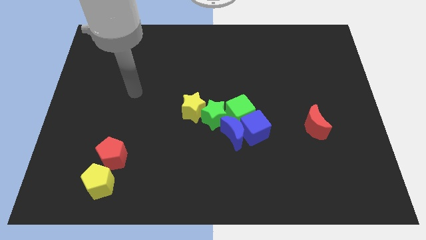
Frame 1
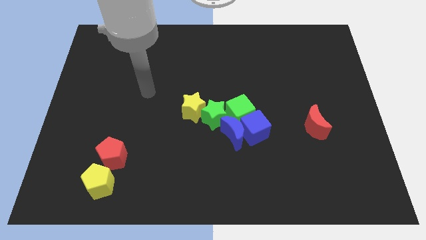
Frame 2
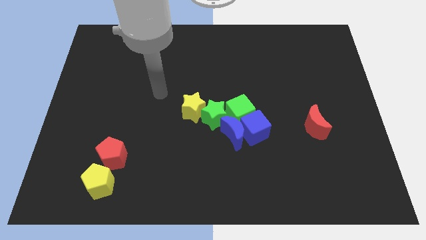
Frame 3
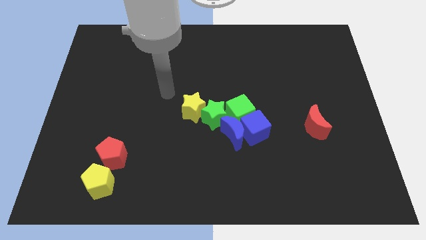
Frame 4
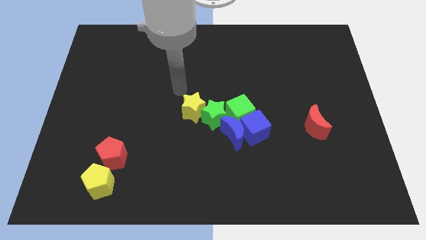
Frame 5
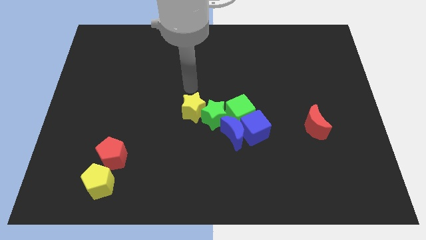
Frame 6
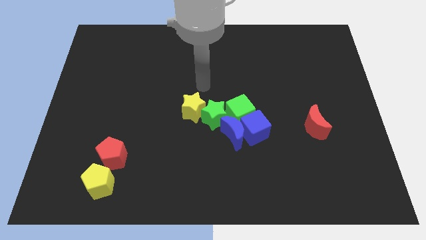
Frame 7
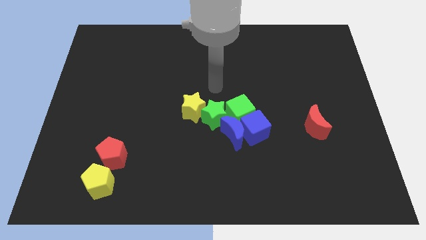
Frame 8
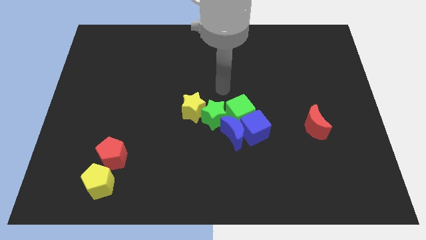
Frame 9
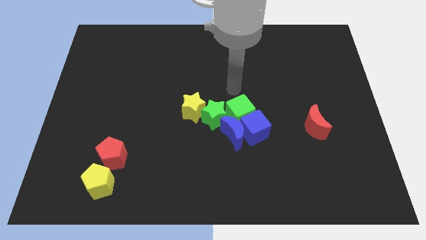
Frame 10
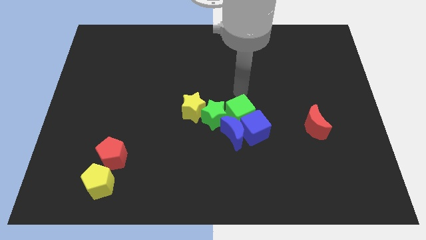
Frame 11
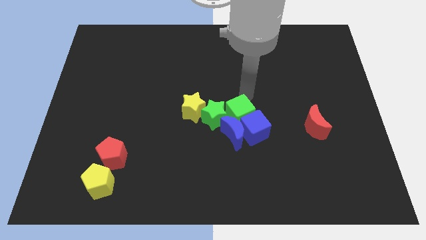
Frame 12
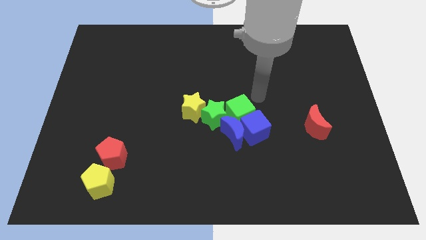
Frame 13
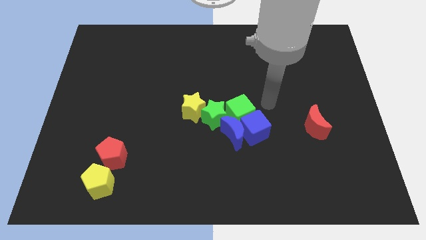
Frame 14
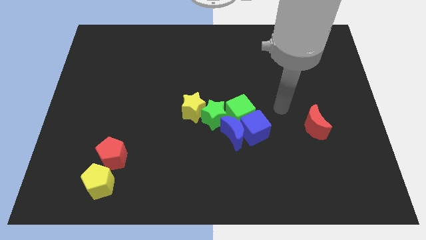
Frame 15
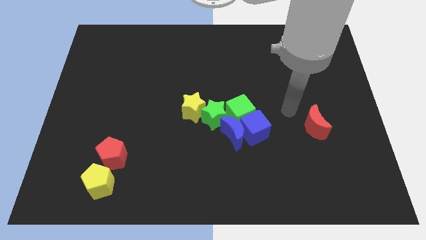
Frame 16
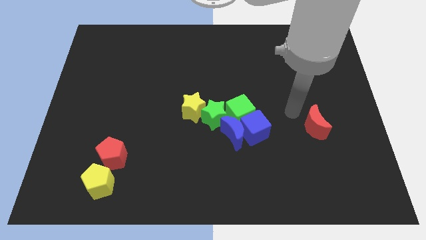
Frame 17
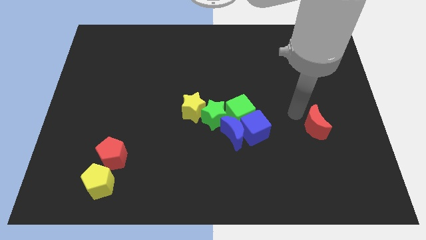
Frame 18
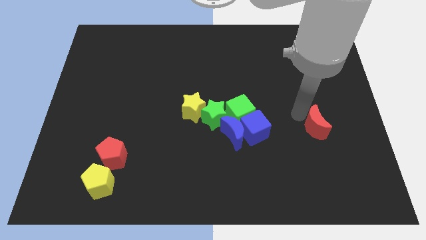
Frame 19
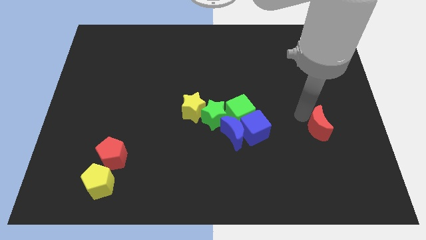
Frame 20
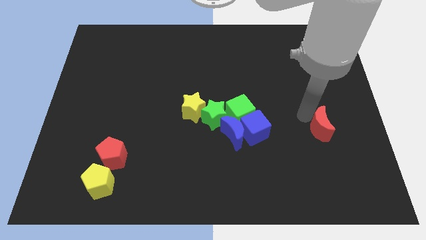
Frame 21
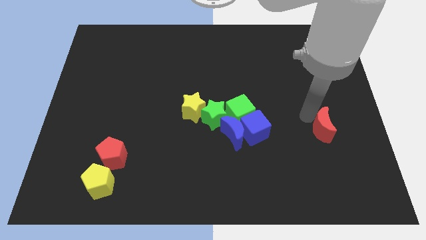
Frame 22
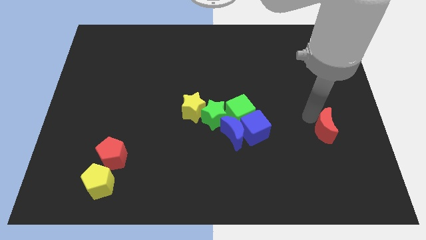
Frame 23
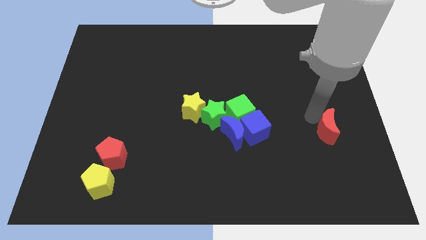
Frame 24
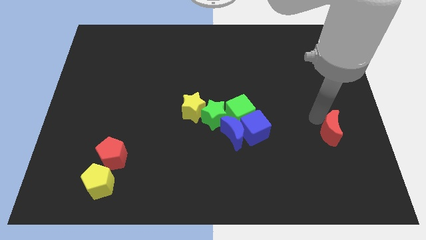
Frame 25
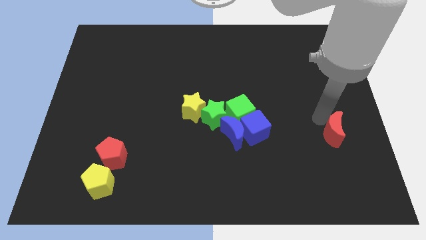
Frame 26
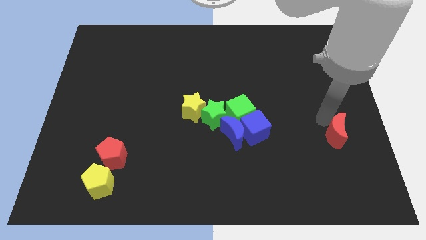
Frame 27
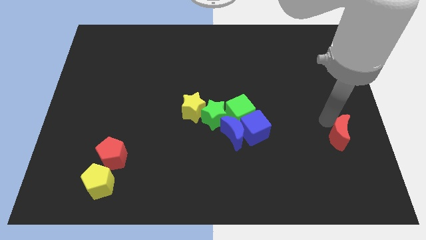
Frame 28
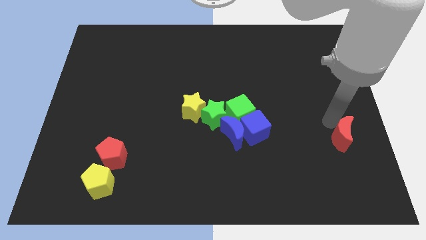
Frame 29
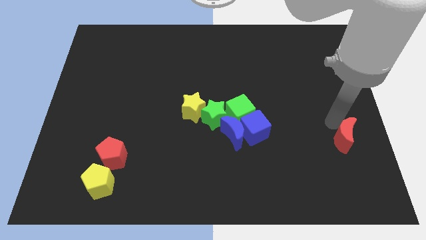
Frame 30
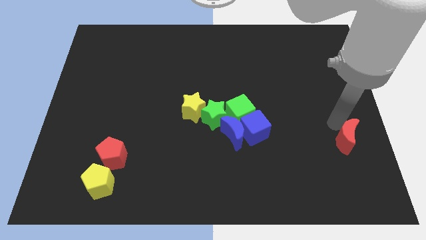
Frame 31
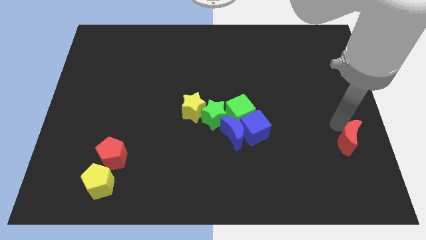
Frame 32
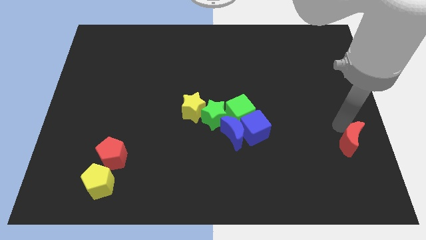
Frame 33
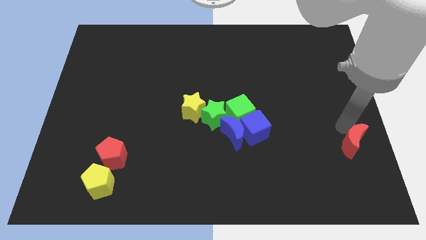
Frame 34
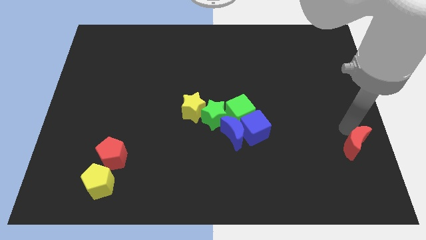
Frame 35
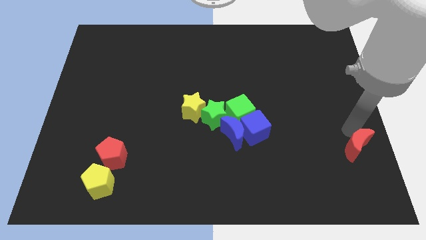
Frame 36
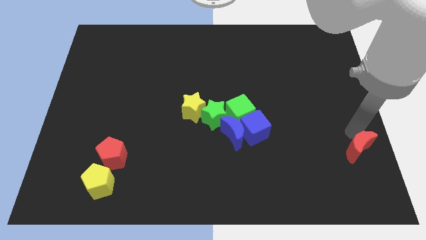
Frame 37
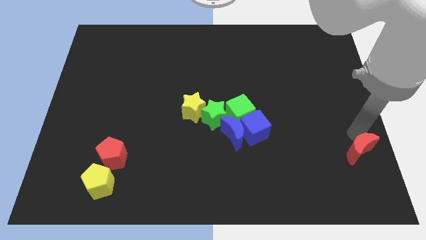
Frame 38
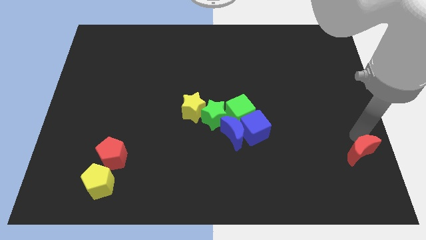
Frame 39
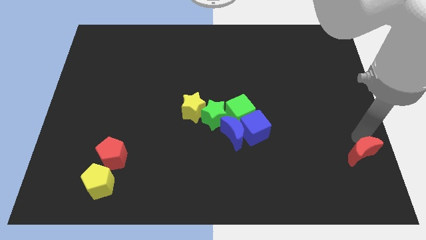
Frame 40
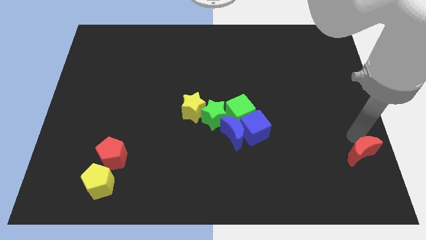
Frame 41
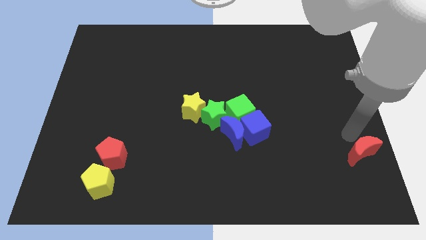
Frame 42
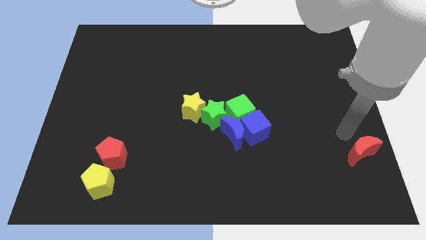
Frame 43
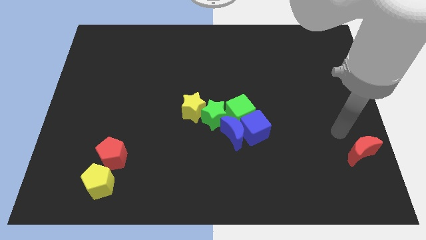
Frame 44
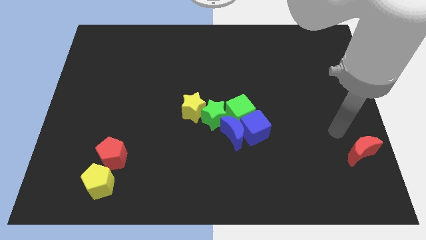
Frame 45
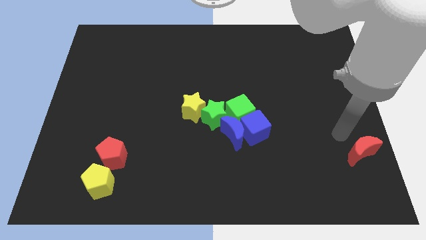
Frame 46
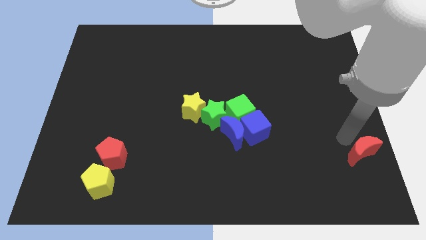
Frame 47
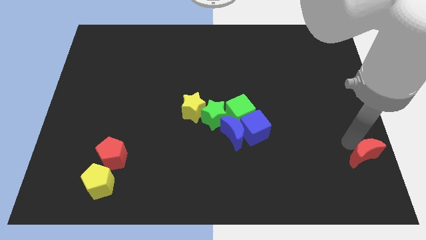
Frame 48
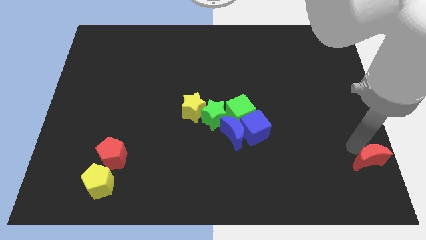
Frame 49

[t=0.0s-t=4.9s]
slide the red moon to the bottom right

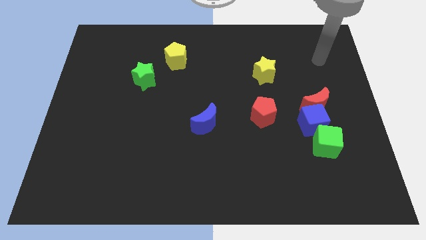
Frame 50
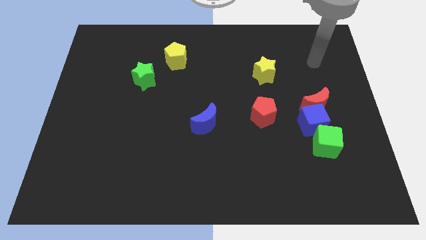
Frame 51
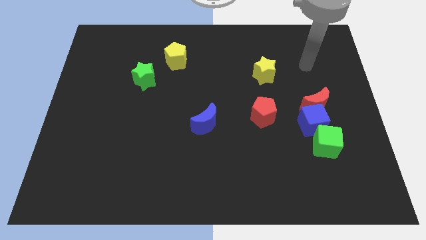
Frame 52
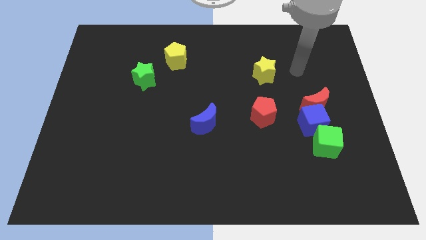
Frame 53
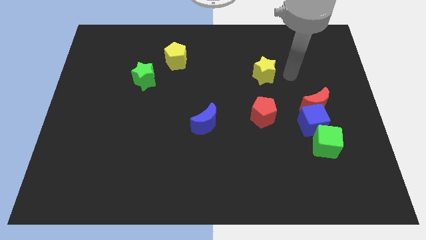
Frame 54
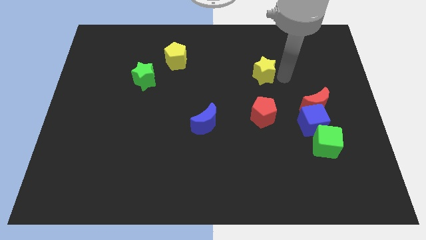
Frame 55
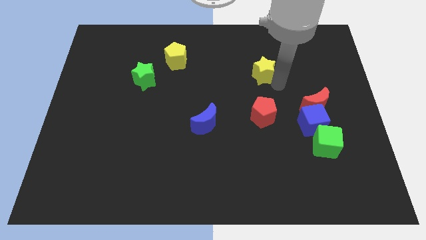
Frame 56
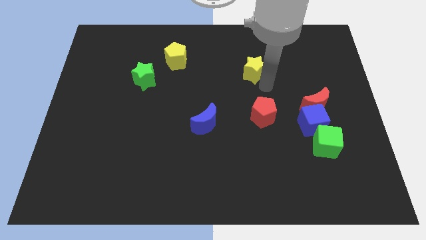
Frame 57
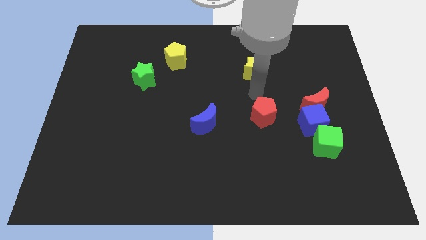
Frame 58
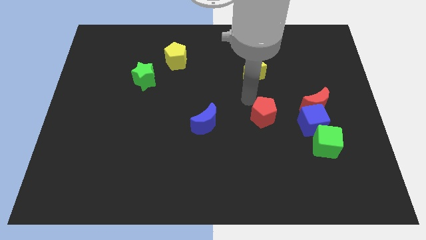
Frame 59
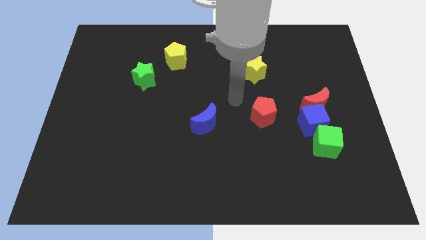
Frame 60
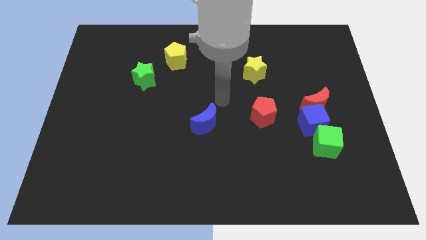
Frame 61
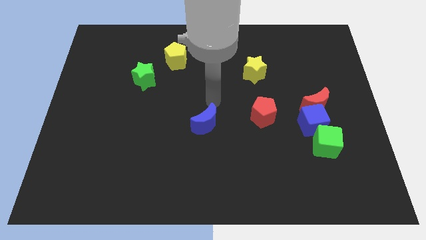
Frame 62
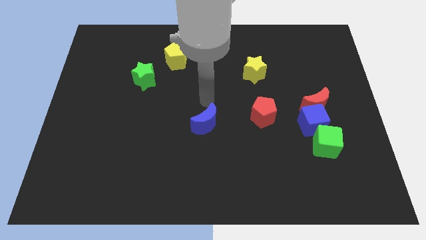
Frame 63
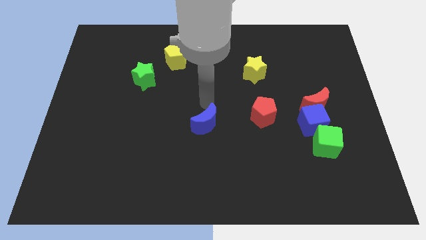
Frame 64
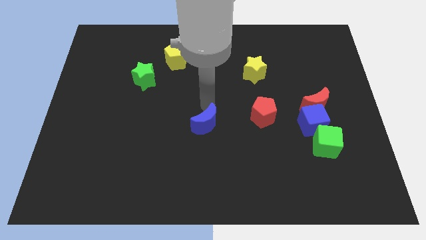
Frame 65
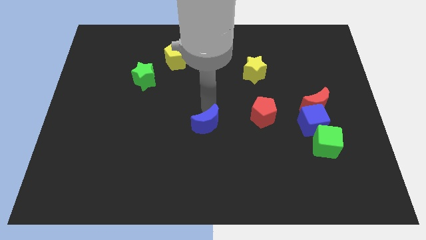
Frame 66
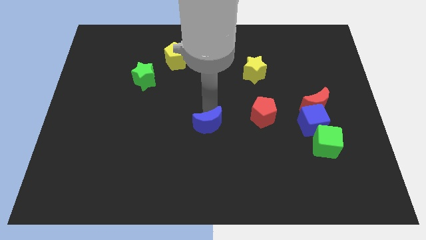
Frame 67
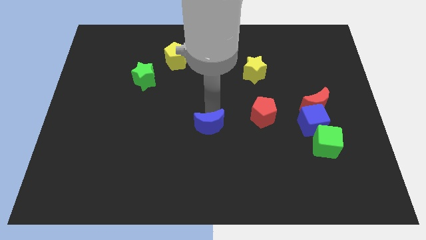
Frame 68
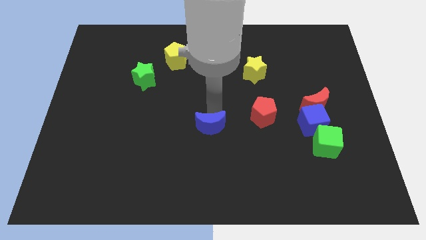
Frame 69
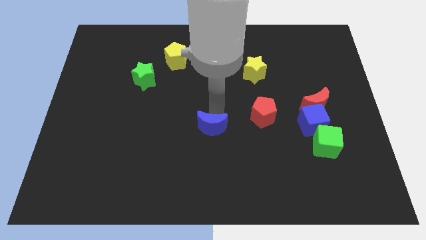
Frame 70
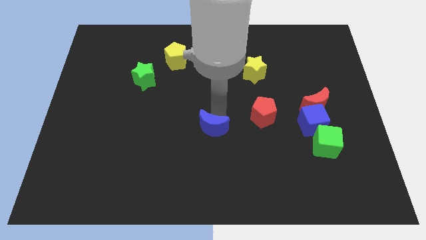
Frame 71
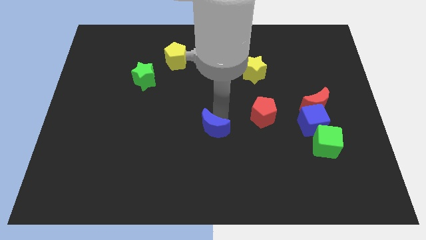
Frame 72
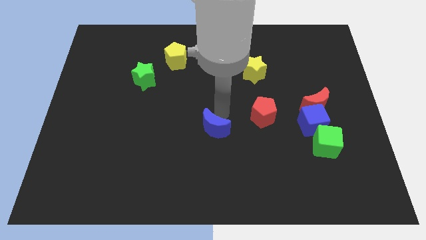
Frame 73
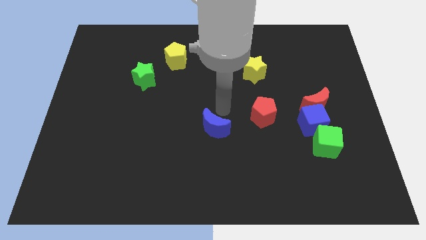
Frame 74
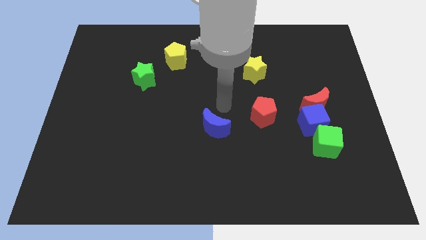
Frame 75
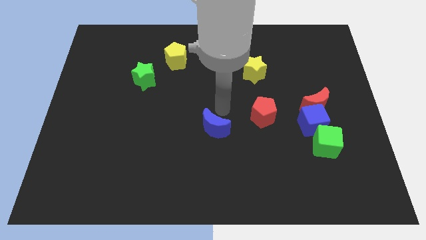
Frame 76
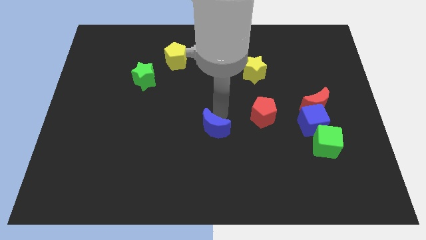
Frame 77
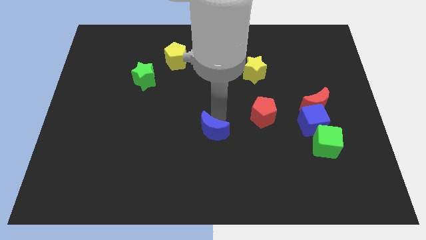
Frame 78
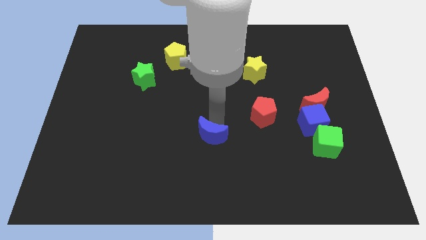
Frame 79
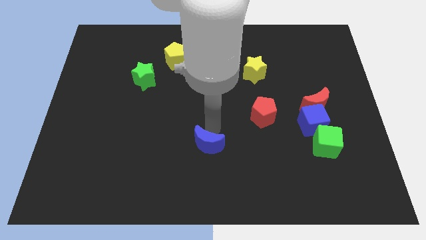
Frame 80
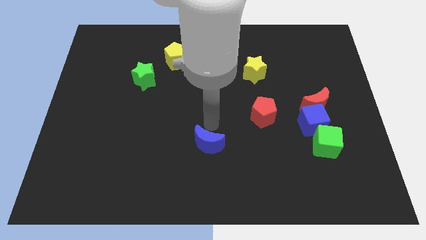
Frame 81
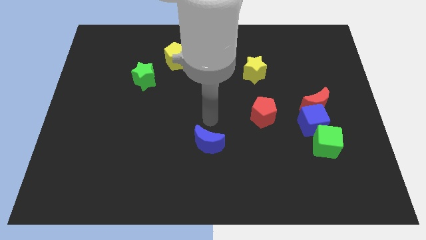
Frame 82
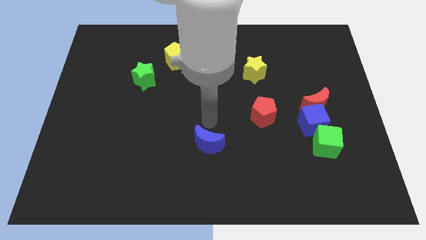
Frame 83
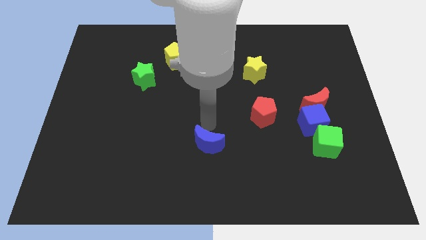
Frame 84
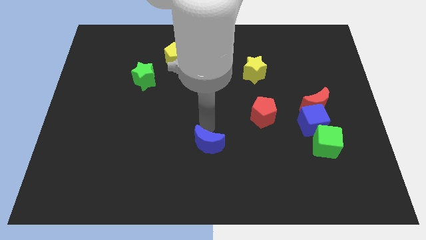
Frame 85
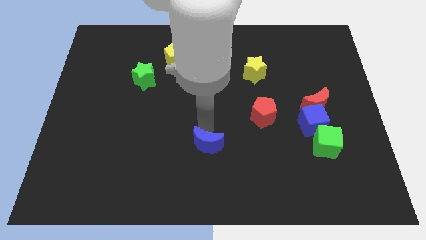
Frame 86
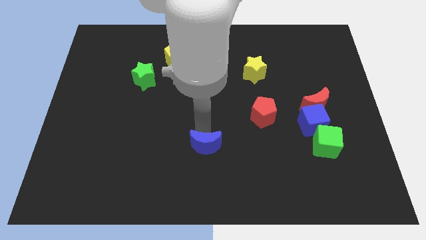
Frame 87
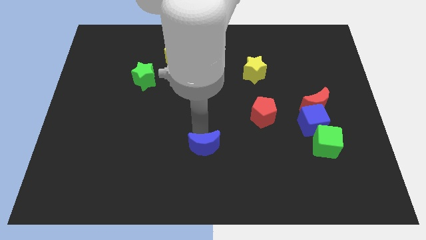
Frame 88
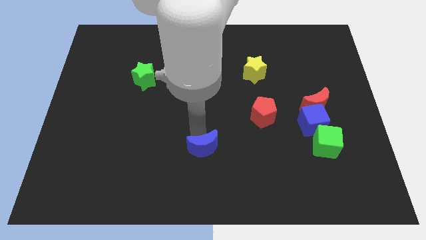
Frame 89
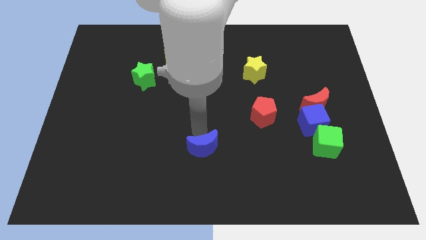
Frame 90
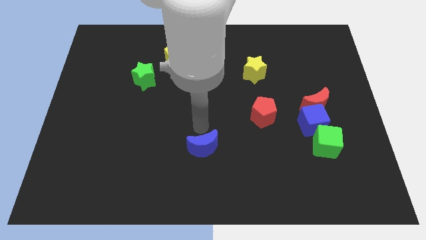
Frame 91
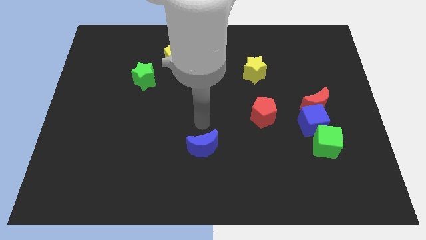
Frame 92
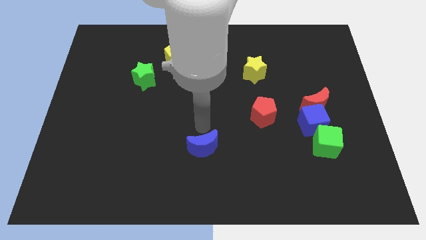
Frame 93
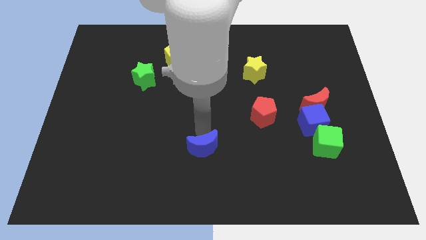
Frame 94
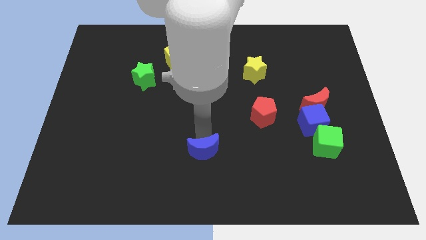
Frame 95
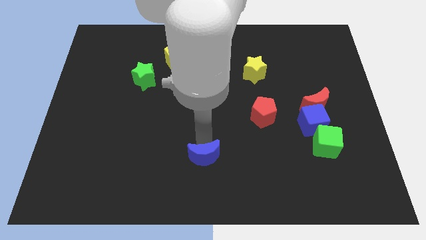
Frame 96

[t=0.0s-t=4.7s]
move the blue moon to the bottom side
